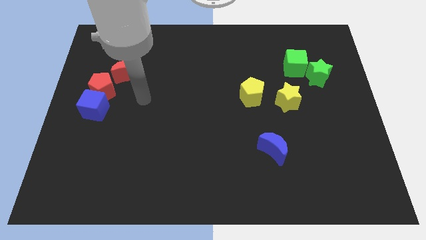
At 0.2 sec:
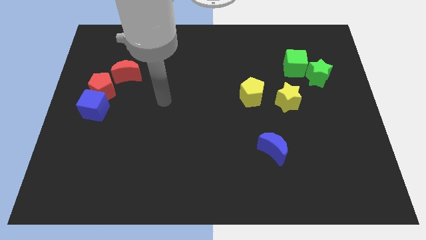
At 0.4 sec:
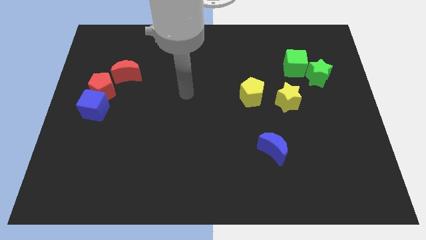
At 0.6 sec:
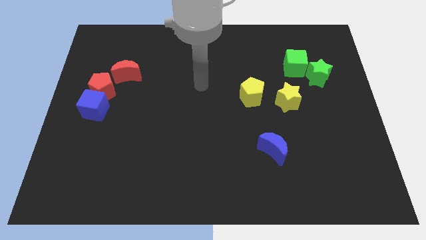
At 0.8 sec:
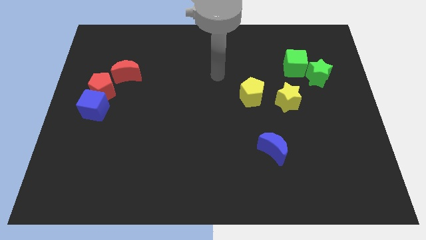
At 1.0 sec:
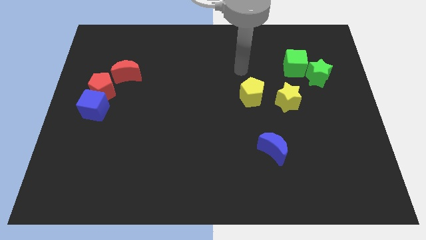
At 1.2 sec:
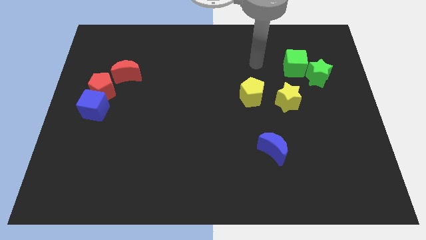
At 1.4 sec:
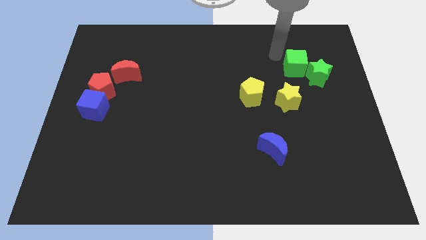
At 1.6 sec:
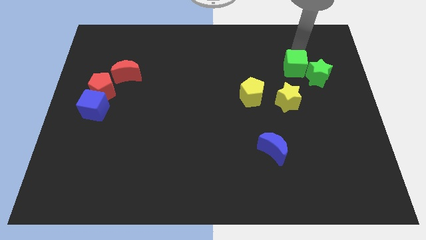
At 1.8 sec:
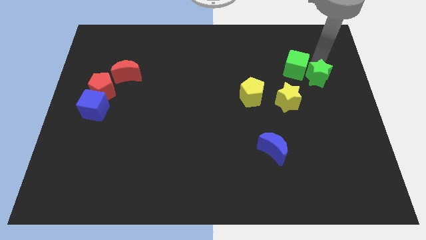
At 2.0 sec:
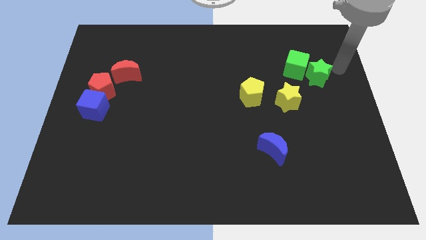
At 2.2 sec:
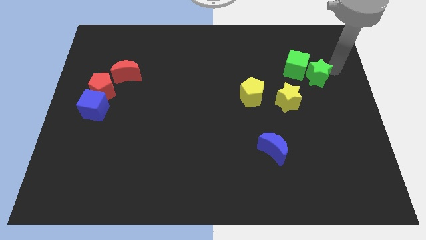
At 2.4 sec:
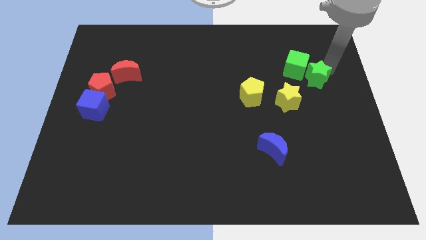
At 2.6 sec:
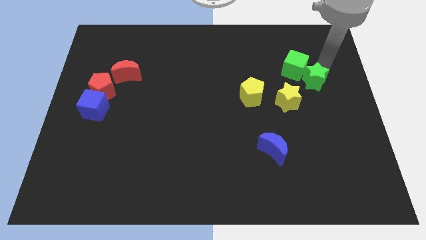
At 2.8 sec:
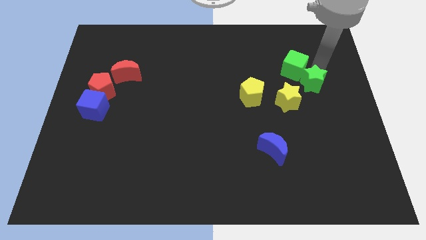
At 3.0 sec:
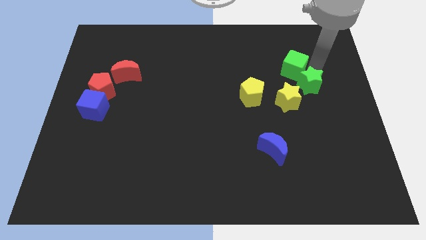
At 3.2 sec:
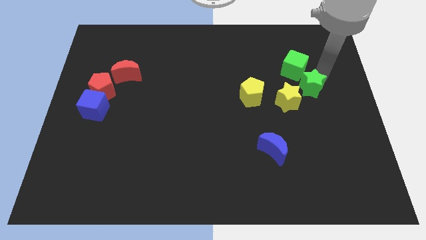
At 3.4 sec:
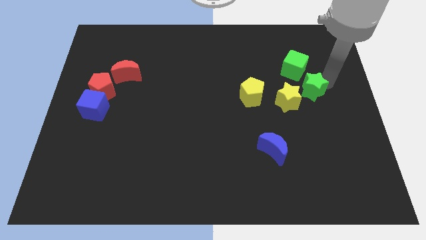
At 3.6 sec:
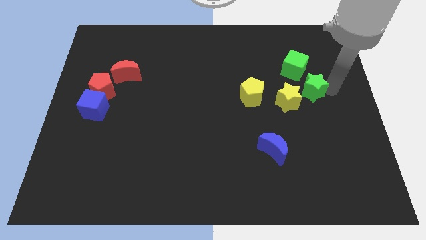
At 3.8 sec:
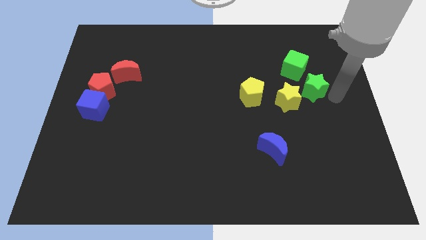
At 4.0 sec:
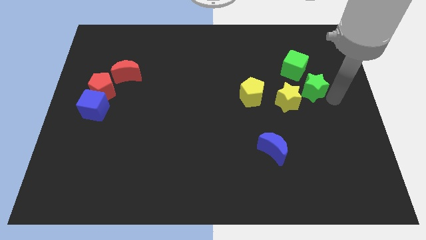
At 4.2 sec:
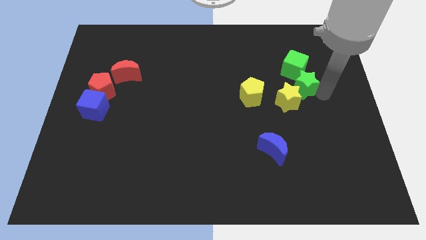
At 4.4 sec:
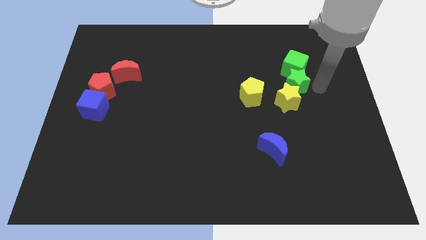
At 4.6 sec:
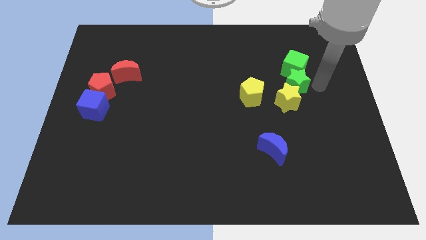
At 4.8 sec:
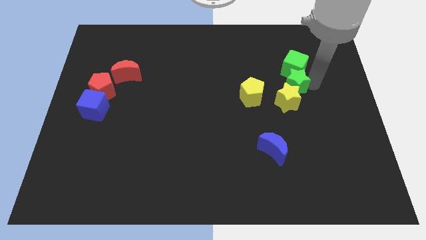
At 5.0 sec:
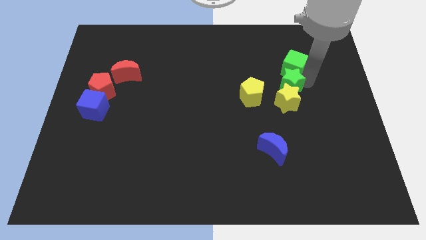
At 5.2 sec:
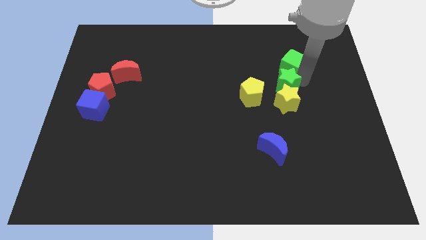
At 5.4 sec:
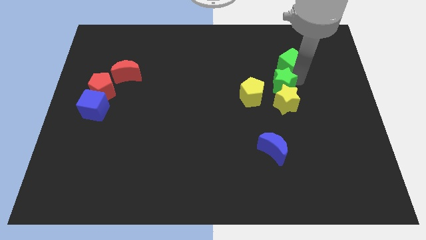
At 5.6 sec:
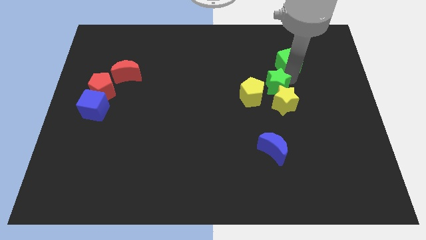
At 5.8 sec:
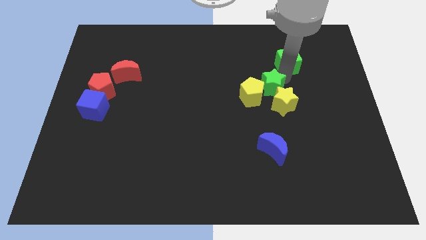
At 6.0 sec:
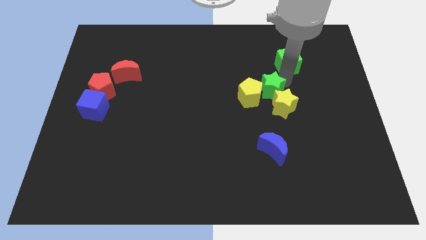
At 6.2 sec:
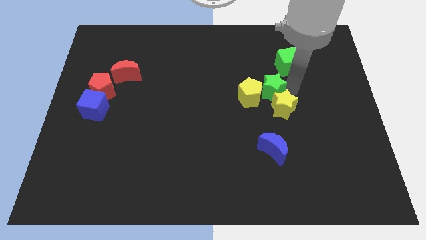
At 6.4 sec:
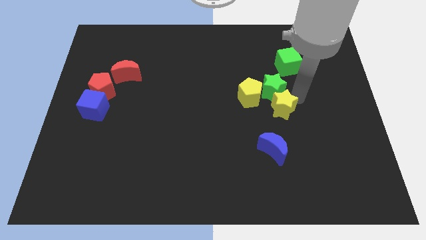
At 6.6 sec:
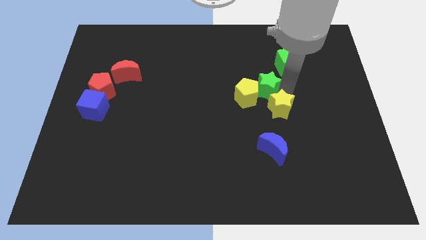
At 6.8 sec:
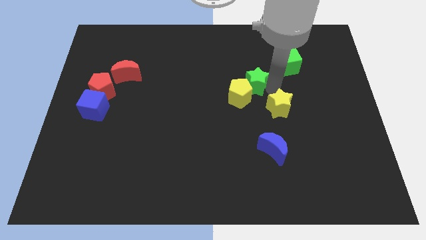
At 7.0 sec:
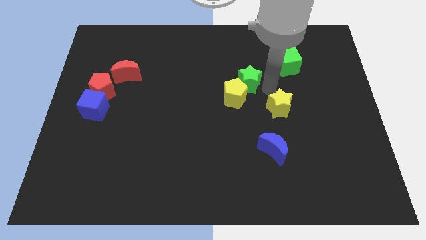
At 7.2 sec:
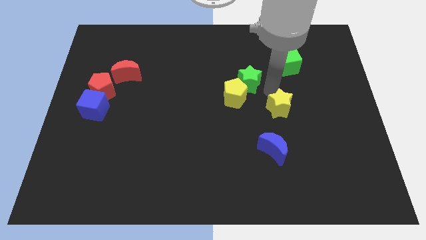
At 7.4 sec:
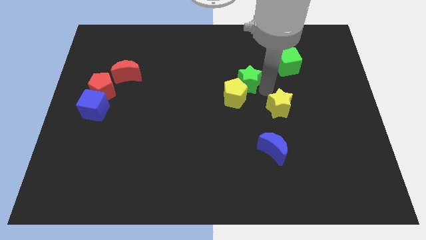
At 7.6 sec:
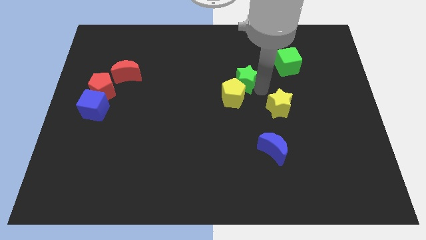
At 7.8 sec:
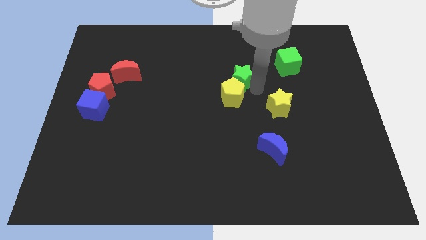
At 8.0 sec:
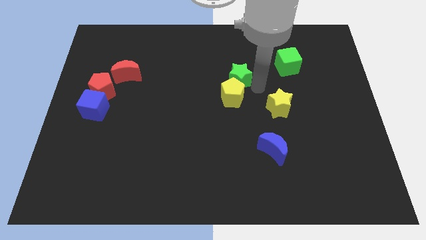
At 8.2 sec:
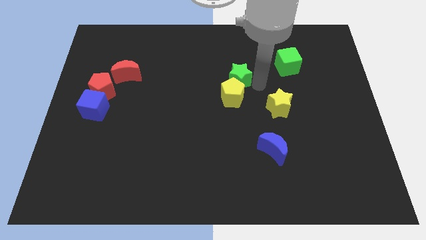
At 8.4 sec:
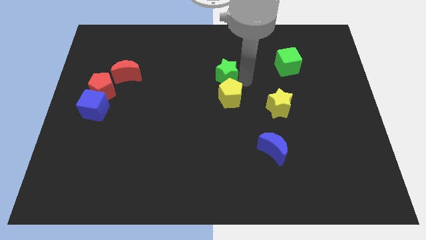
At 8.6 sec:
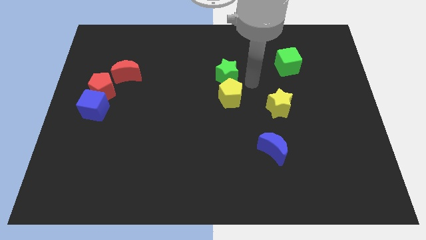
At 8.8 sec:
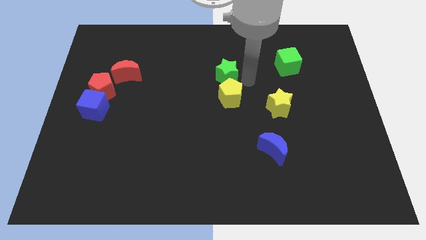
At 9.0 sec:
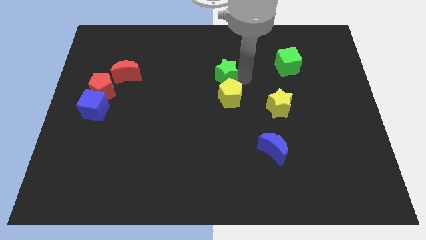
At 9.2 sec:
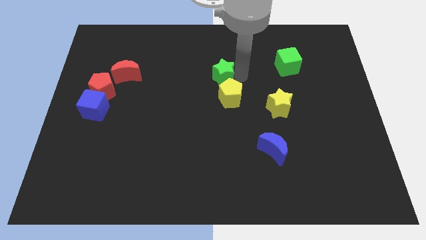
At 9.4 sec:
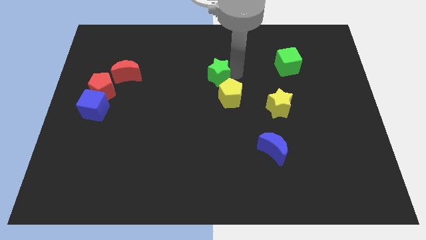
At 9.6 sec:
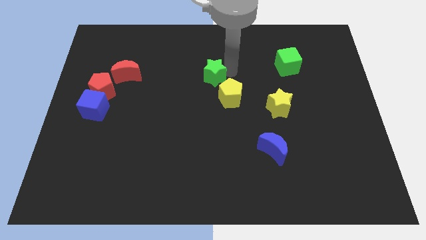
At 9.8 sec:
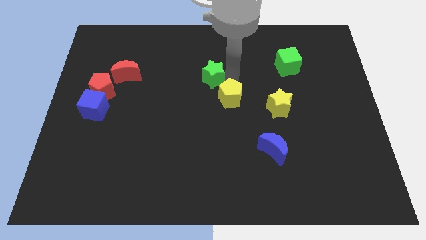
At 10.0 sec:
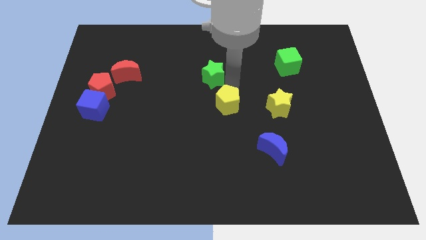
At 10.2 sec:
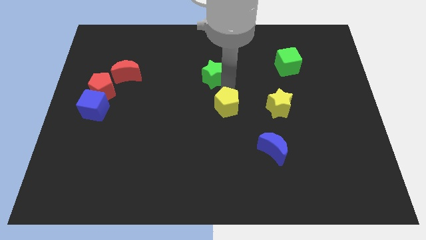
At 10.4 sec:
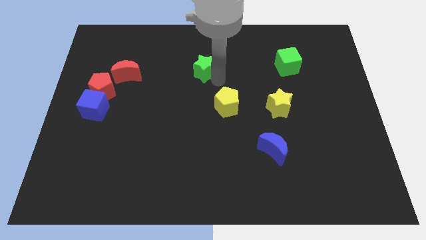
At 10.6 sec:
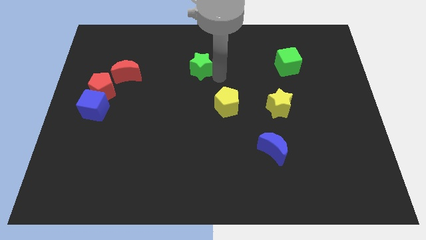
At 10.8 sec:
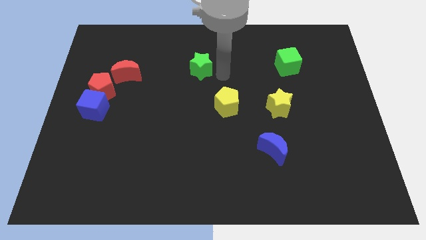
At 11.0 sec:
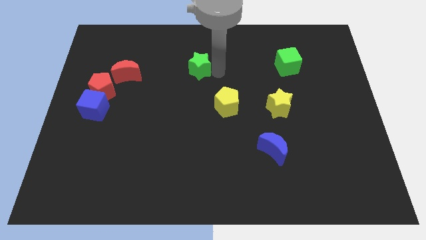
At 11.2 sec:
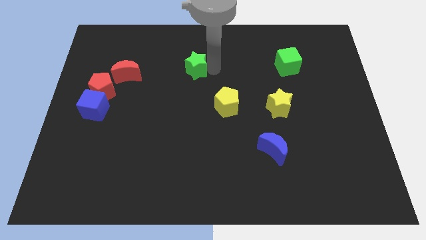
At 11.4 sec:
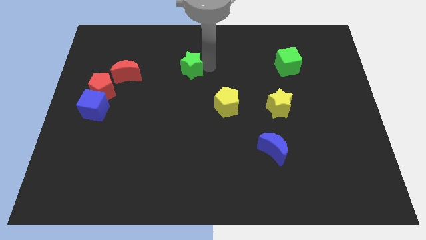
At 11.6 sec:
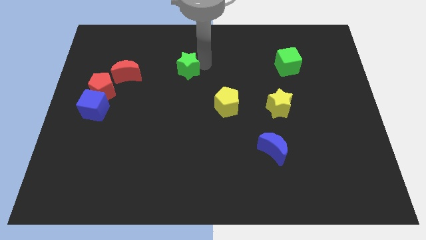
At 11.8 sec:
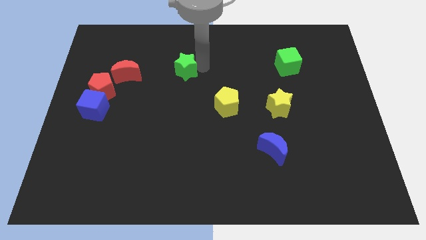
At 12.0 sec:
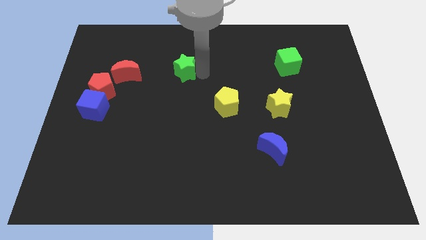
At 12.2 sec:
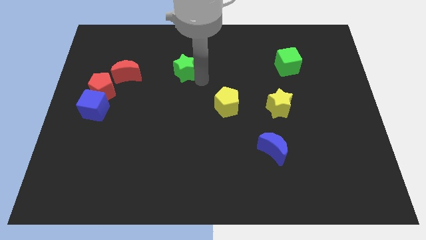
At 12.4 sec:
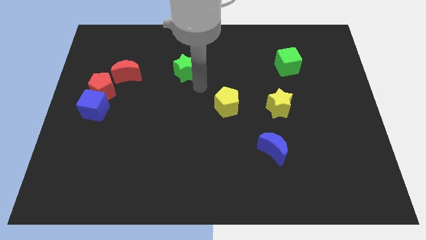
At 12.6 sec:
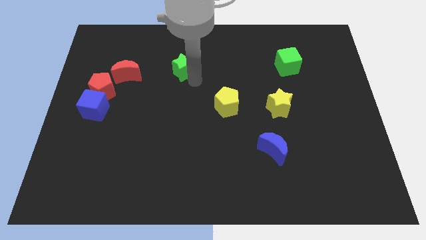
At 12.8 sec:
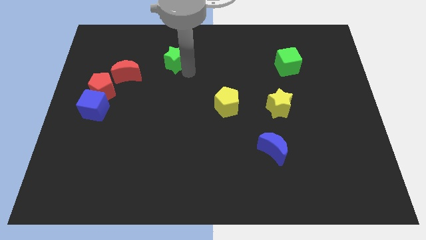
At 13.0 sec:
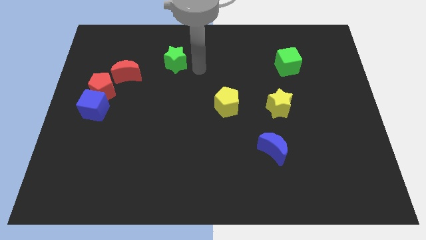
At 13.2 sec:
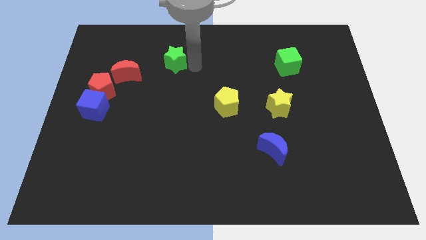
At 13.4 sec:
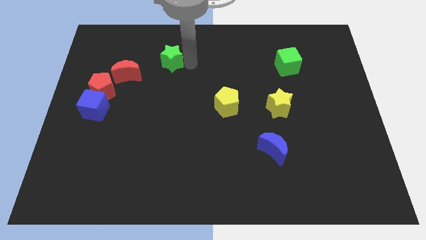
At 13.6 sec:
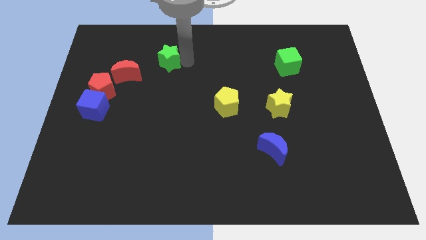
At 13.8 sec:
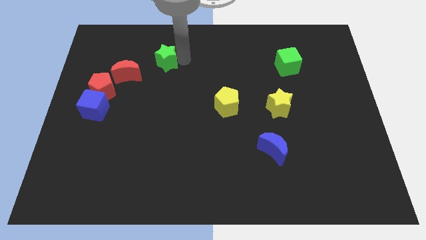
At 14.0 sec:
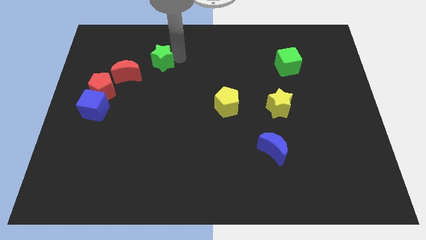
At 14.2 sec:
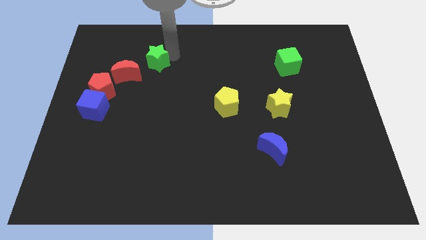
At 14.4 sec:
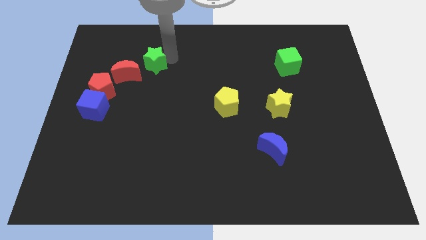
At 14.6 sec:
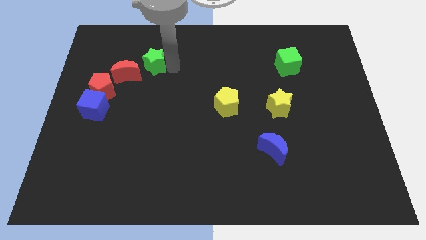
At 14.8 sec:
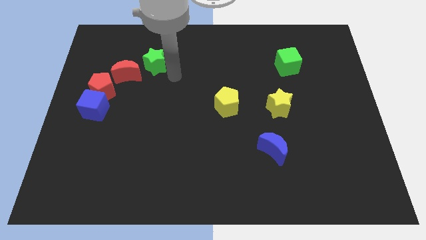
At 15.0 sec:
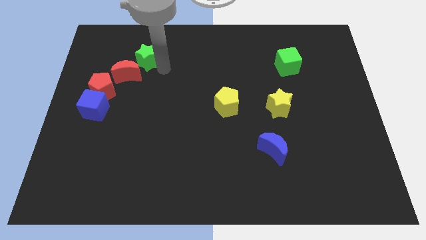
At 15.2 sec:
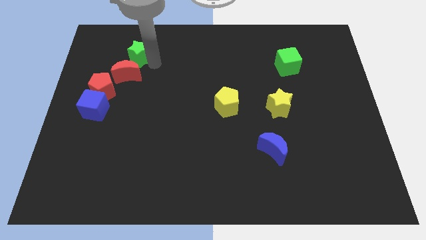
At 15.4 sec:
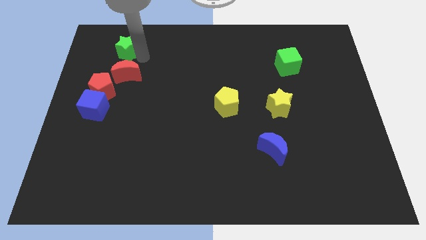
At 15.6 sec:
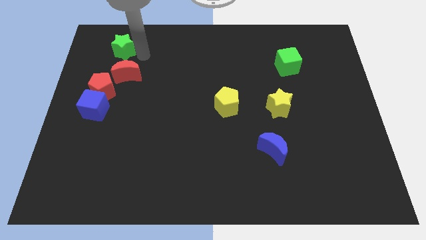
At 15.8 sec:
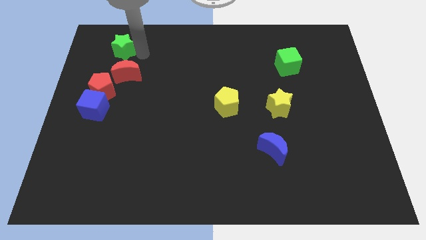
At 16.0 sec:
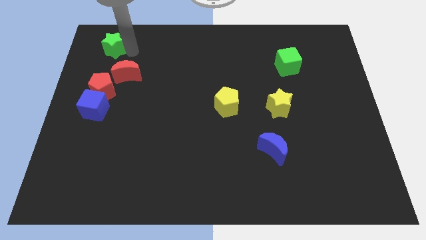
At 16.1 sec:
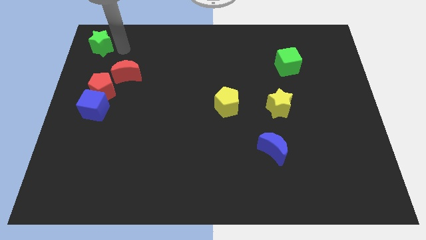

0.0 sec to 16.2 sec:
push the green star to the upper left corner
